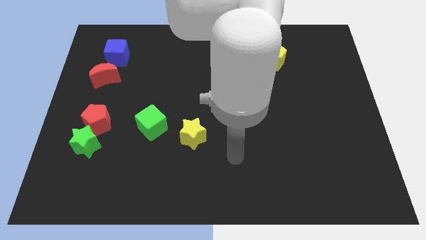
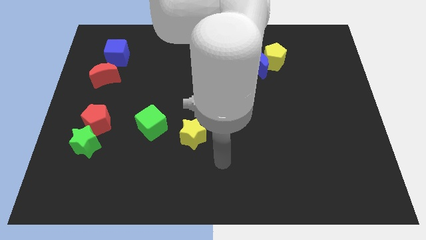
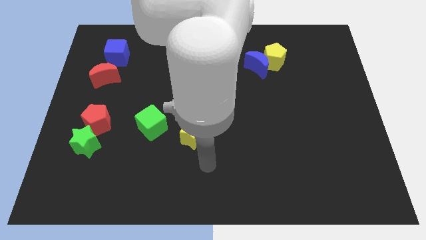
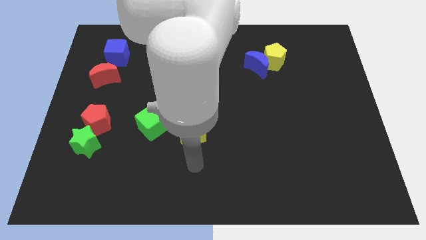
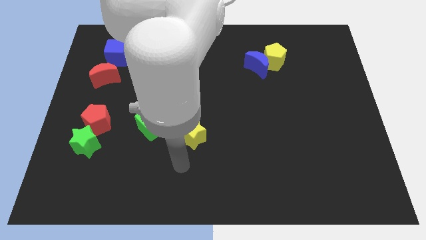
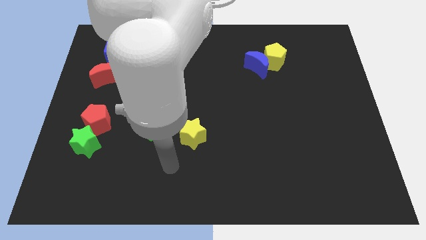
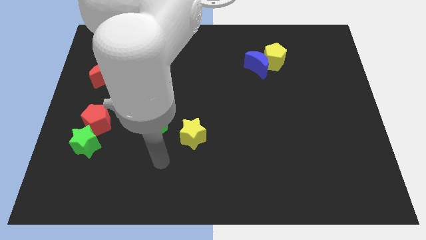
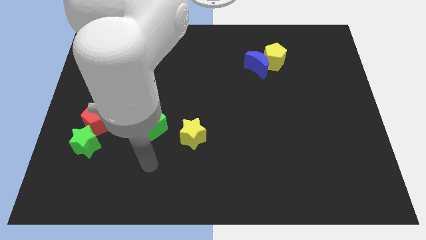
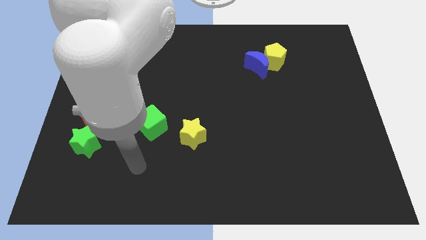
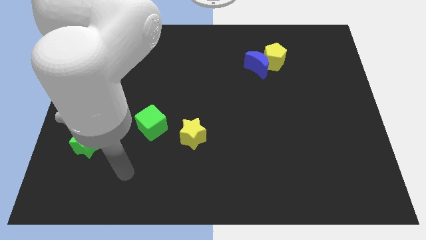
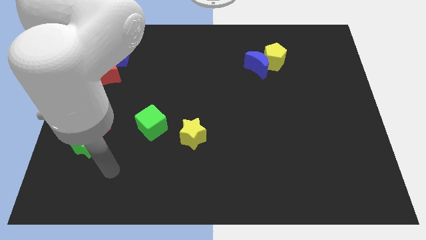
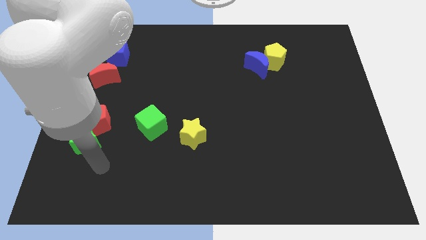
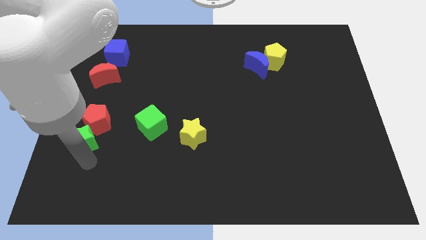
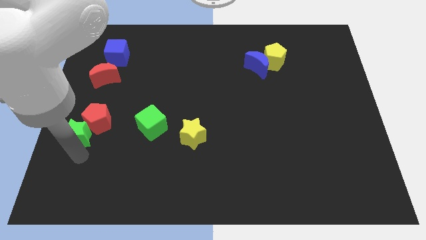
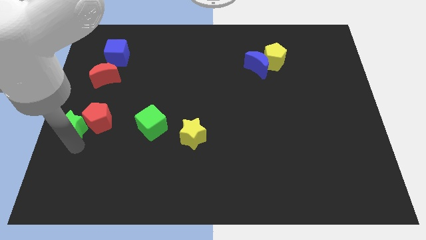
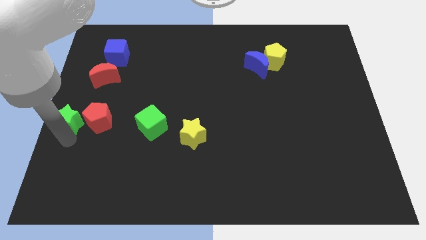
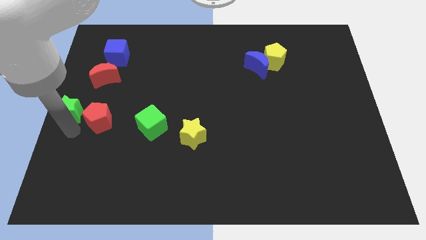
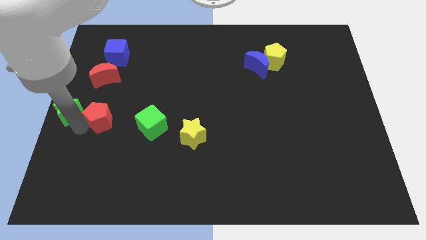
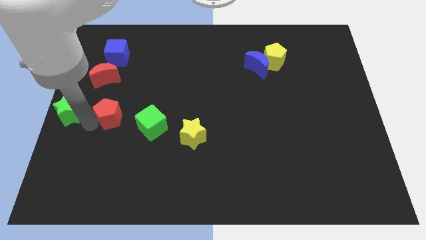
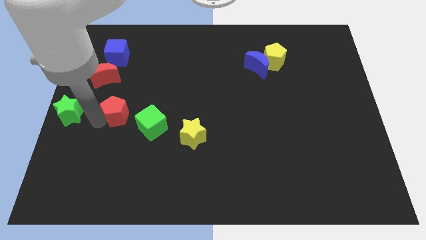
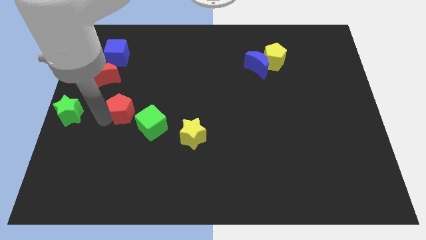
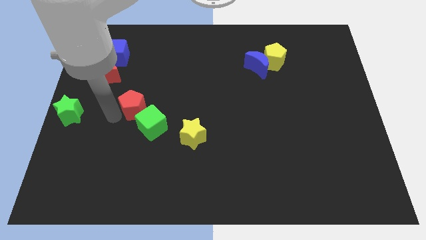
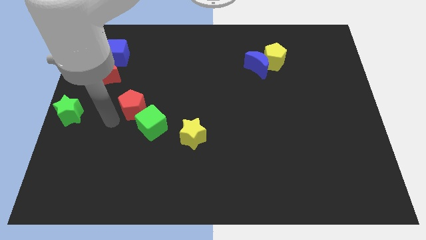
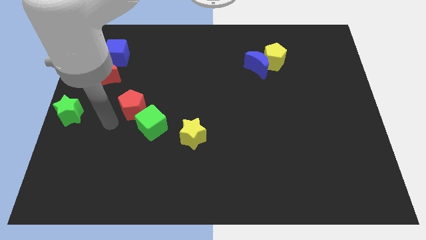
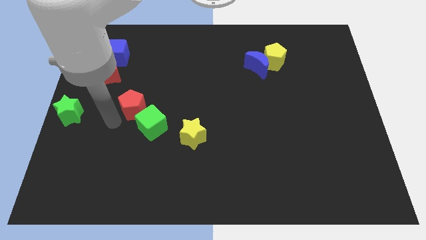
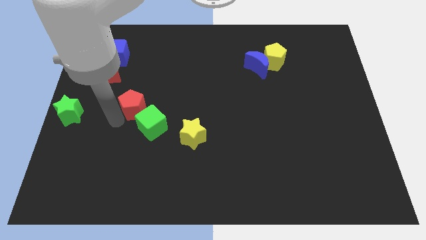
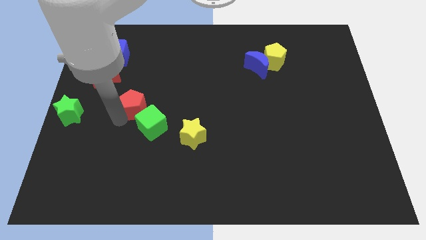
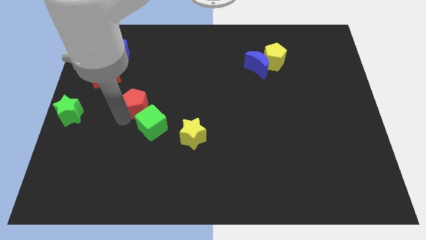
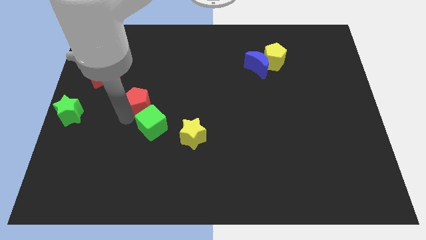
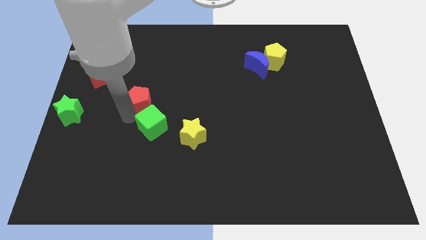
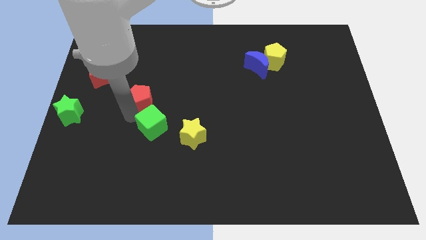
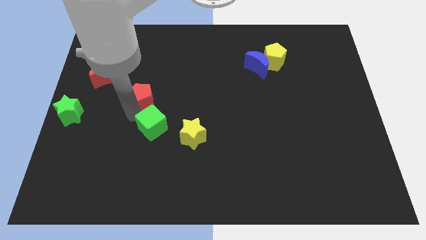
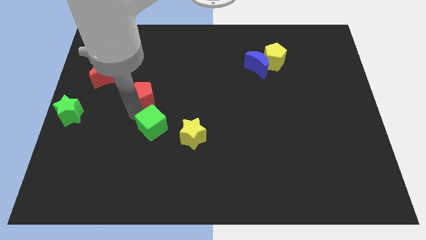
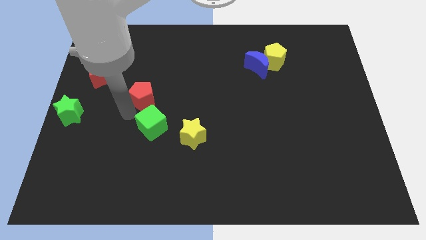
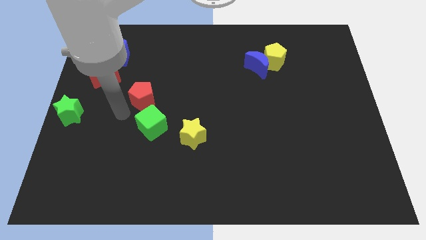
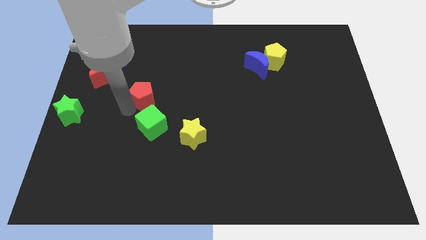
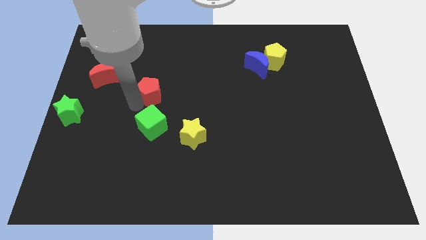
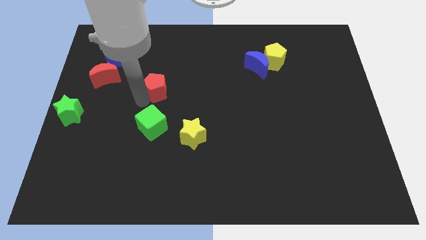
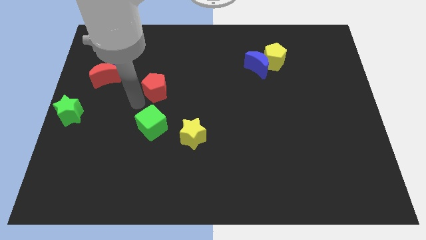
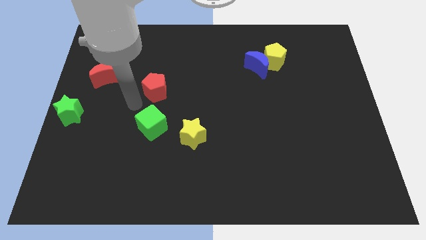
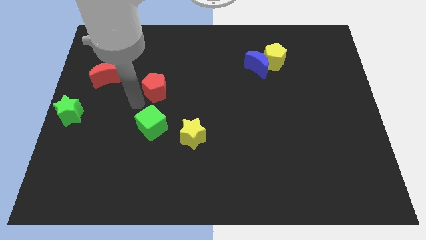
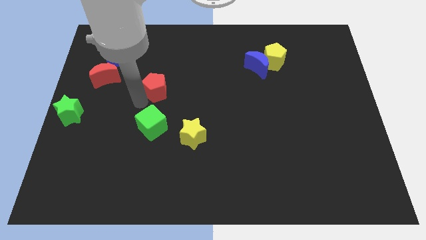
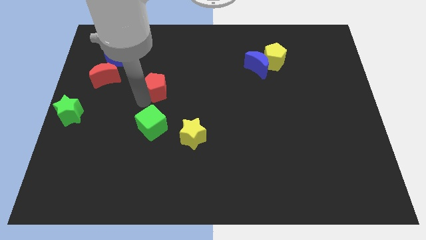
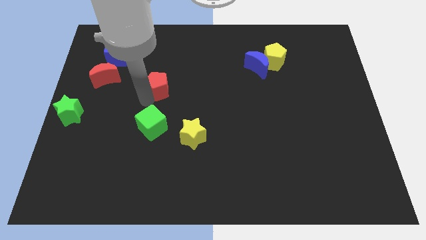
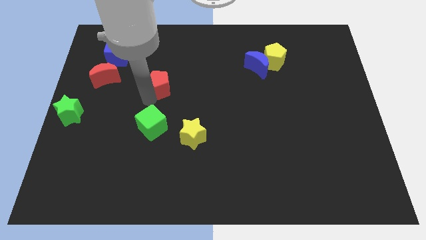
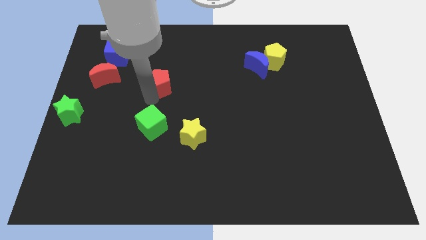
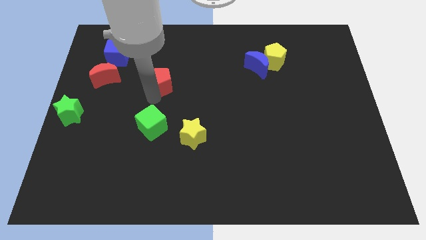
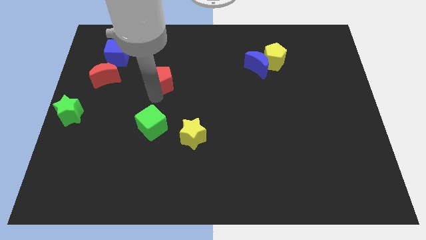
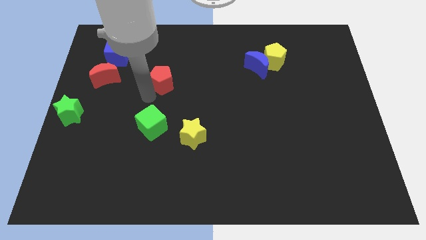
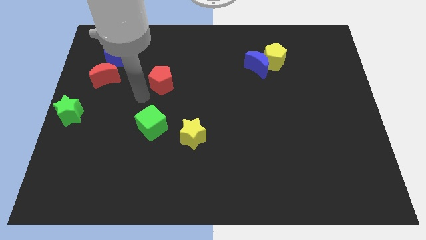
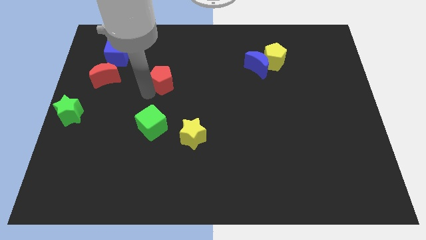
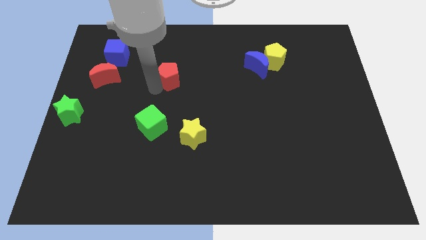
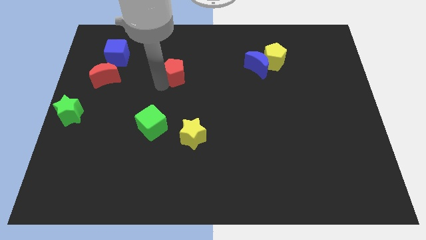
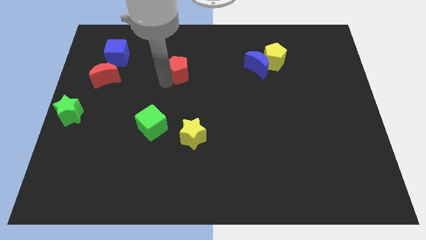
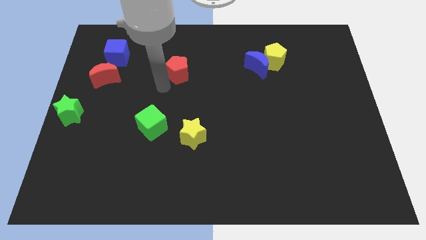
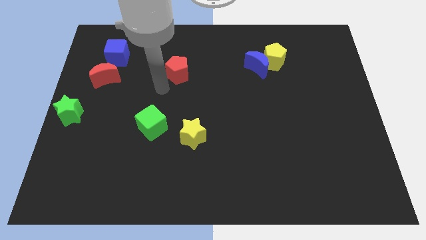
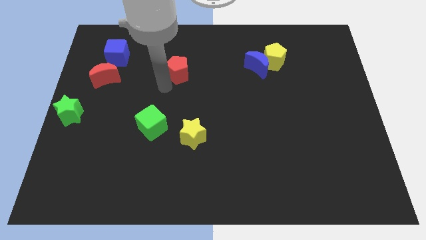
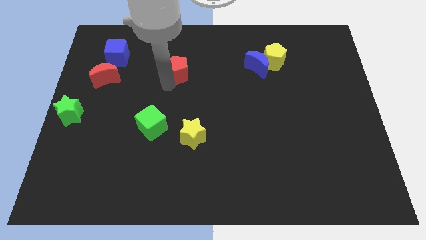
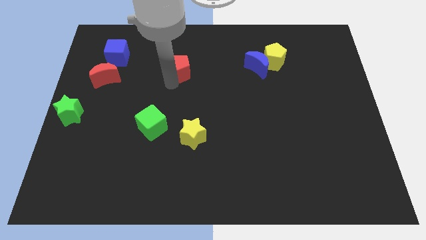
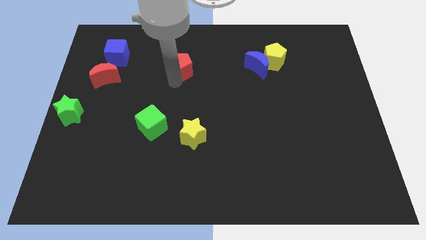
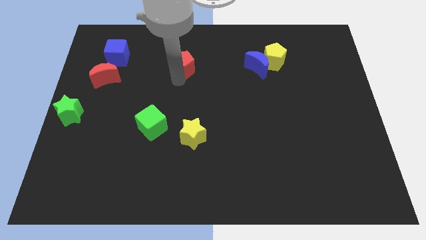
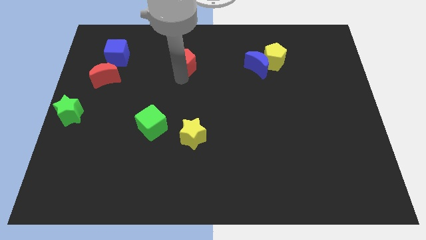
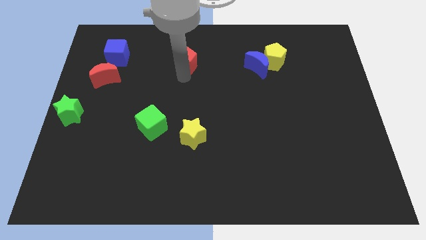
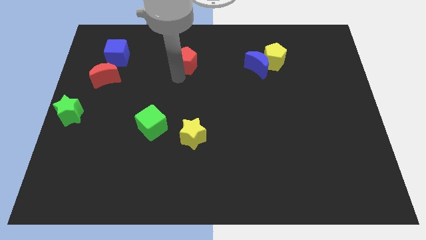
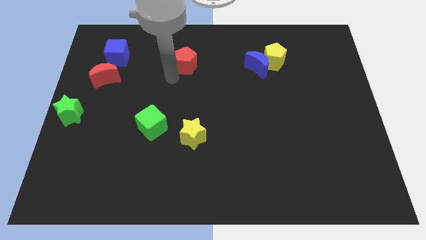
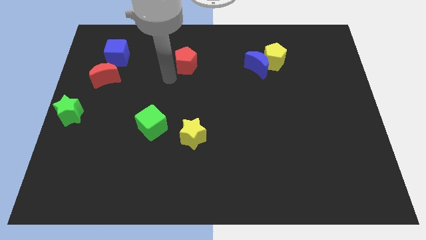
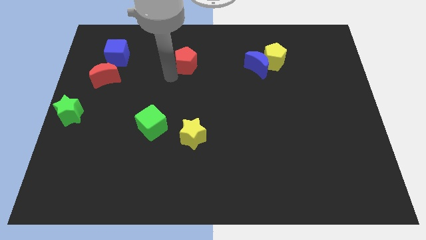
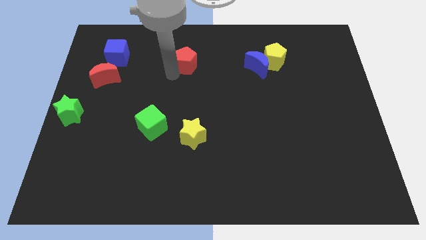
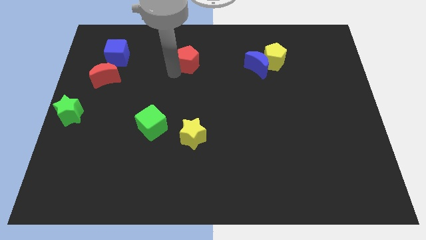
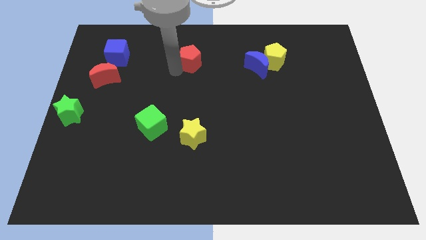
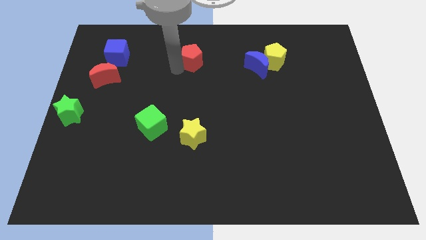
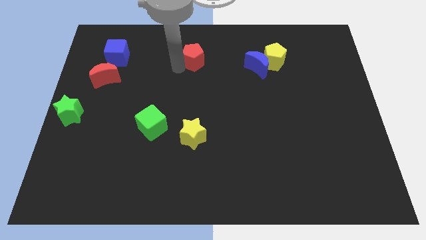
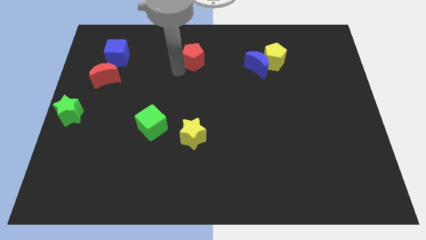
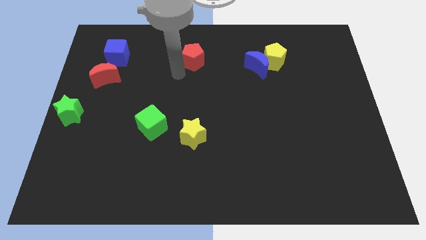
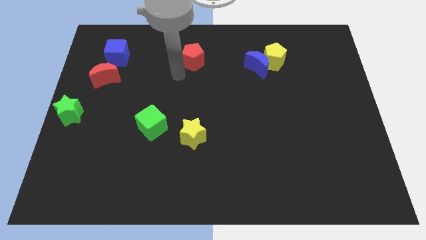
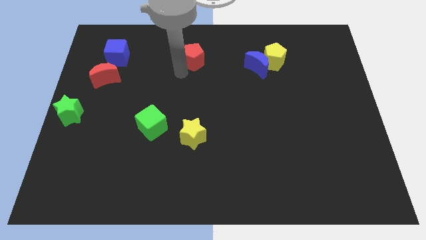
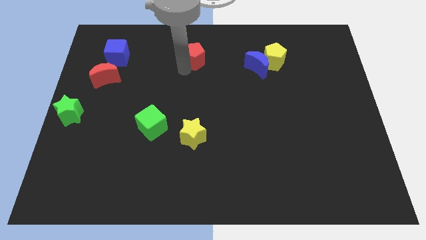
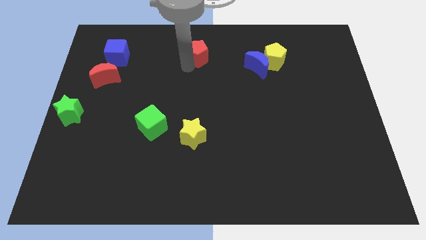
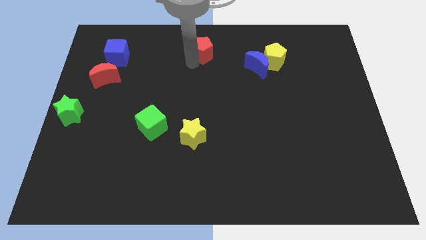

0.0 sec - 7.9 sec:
move the red pentagon to the top side
